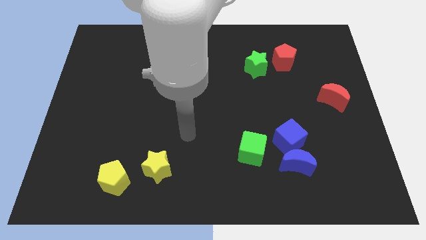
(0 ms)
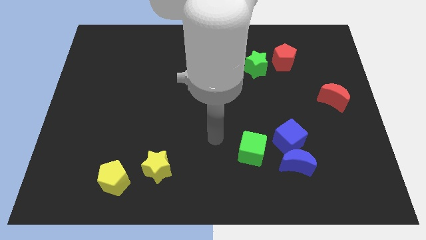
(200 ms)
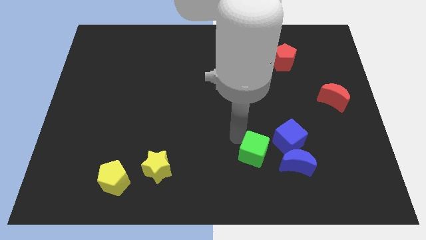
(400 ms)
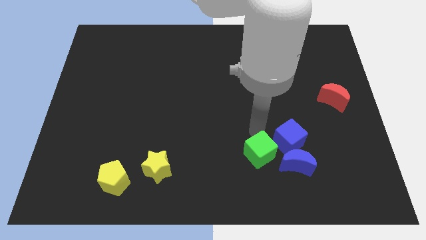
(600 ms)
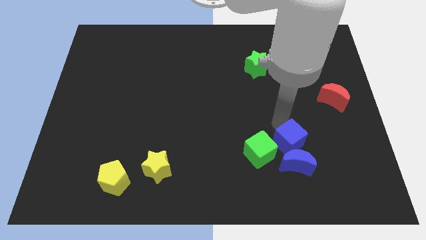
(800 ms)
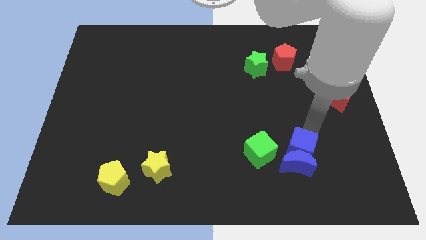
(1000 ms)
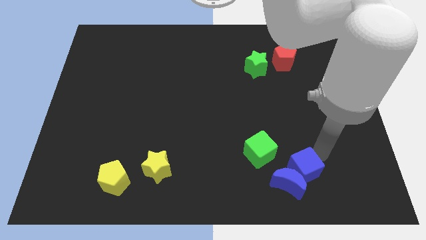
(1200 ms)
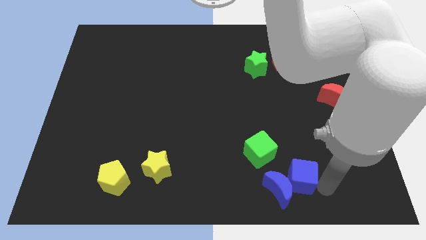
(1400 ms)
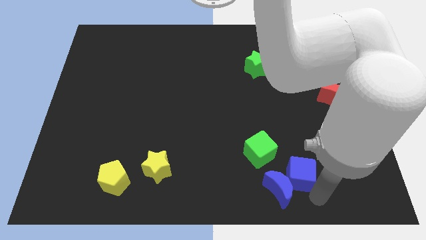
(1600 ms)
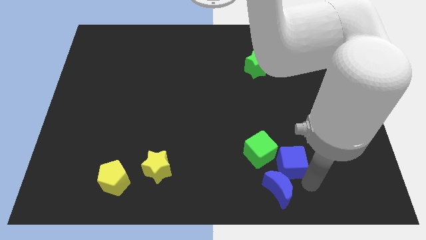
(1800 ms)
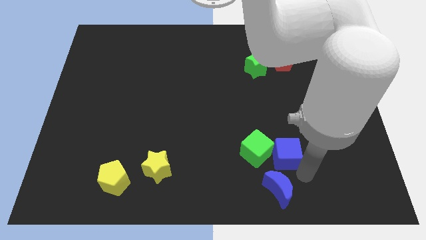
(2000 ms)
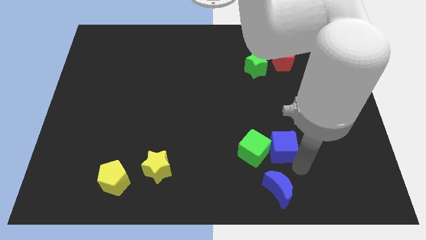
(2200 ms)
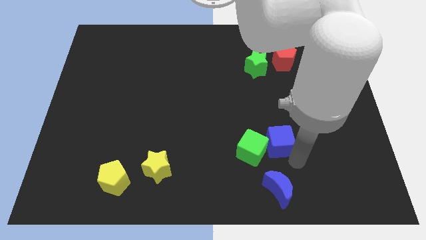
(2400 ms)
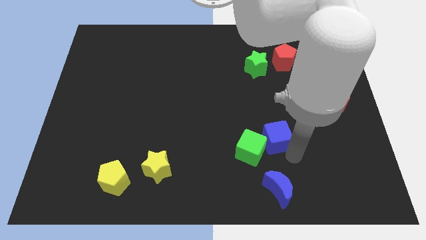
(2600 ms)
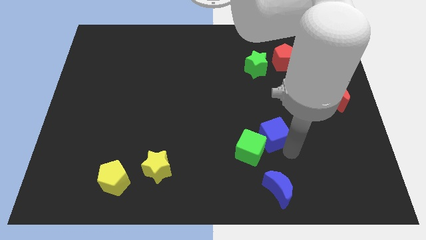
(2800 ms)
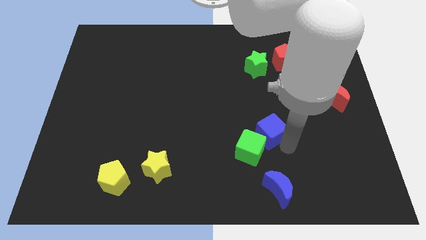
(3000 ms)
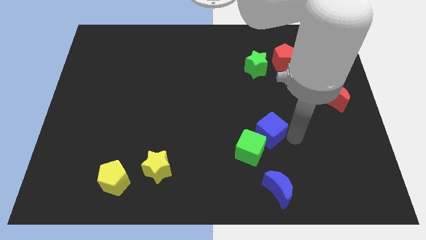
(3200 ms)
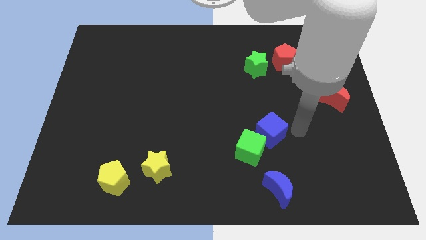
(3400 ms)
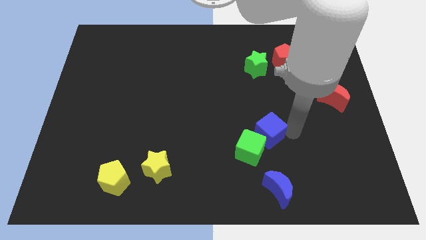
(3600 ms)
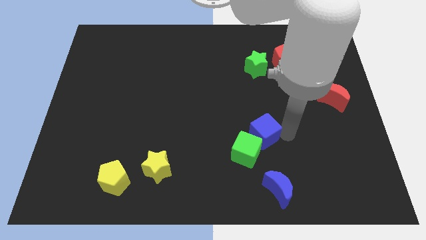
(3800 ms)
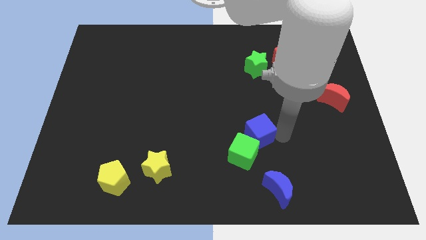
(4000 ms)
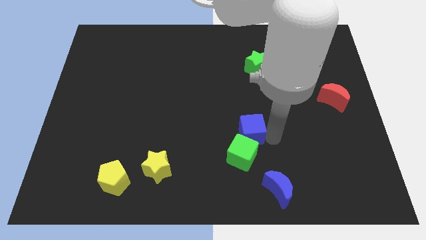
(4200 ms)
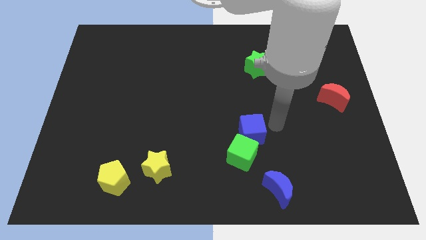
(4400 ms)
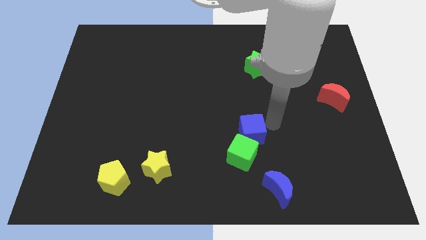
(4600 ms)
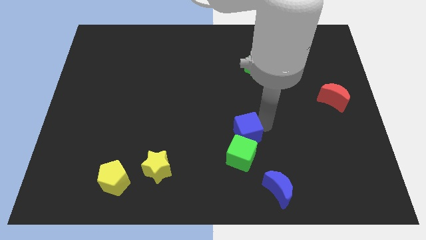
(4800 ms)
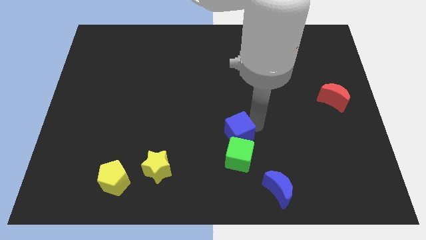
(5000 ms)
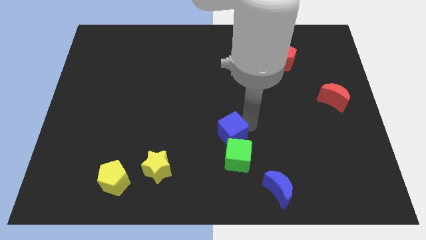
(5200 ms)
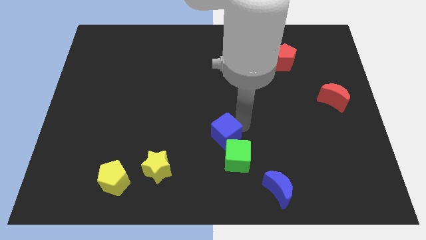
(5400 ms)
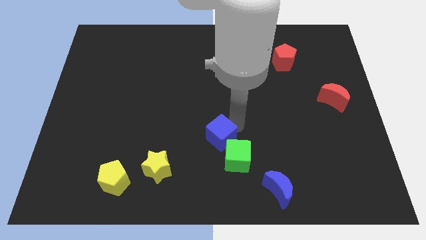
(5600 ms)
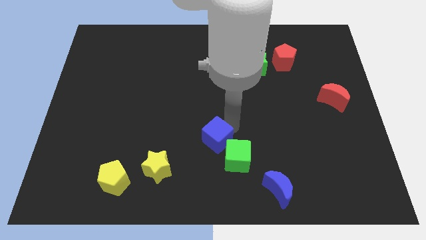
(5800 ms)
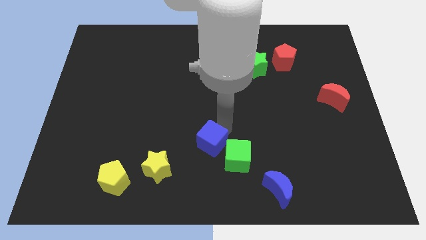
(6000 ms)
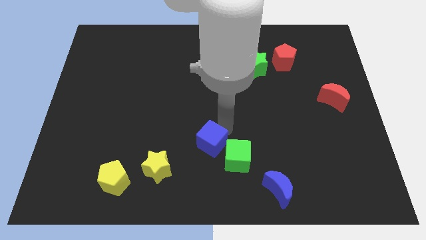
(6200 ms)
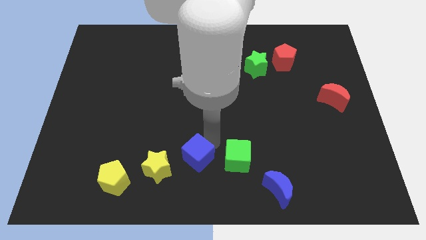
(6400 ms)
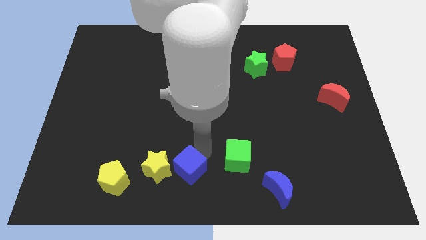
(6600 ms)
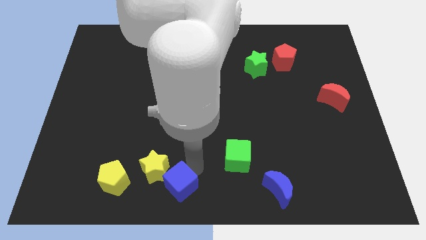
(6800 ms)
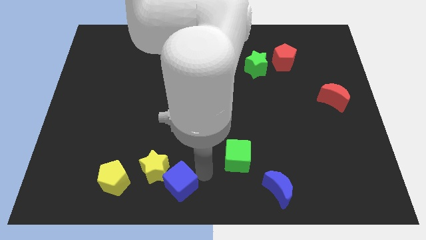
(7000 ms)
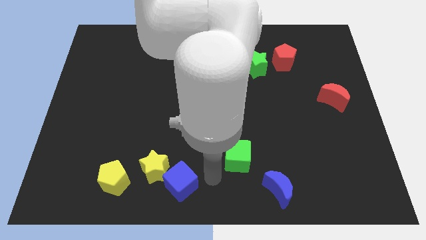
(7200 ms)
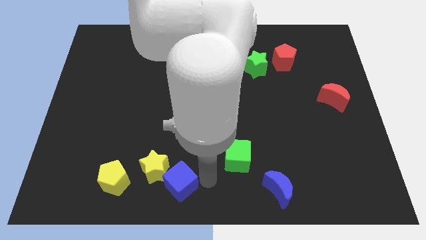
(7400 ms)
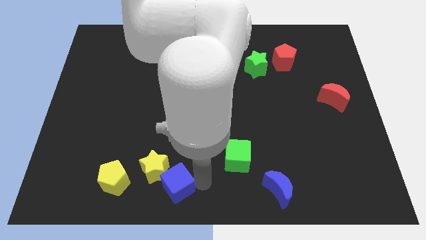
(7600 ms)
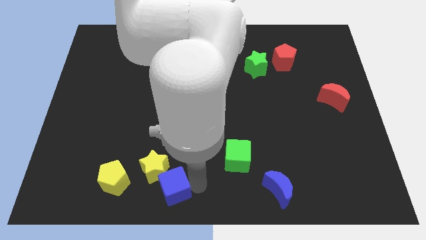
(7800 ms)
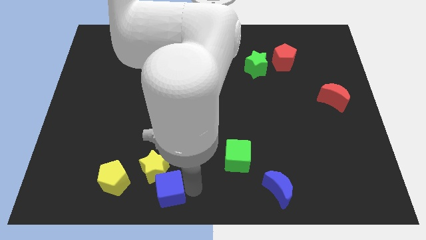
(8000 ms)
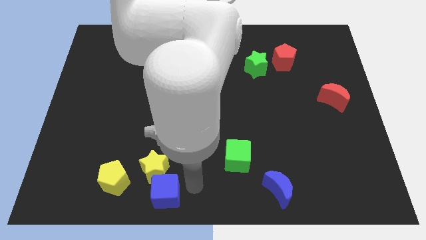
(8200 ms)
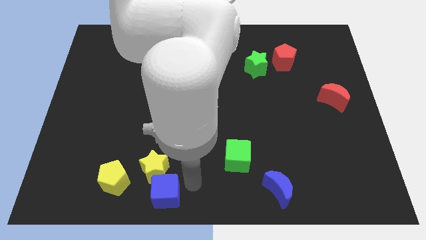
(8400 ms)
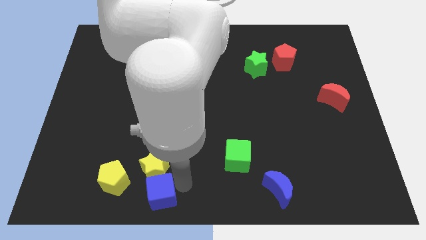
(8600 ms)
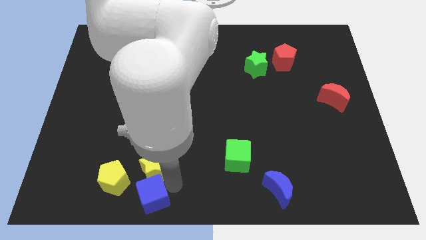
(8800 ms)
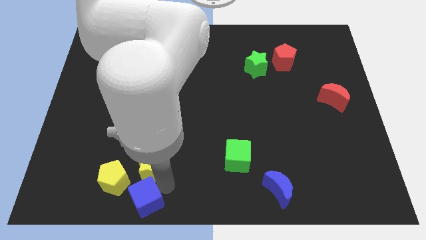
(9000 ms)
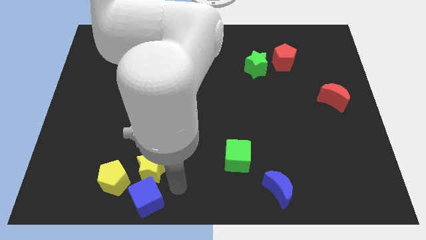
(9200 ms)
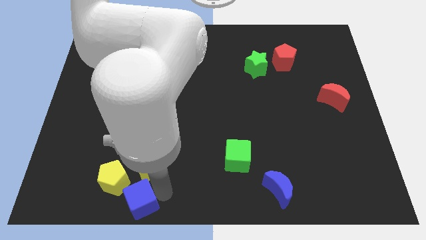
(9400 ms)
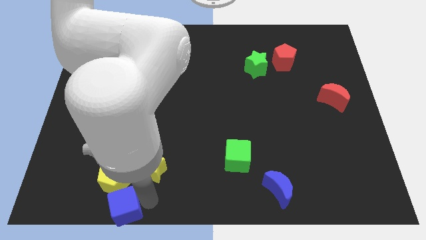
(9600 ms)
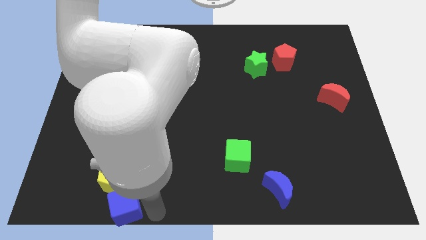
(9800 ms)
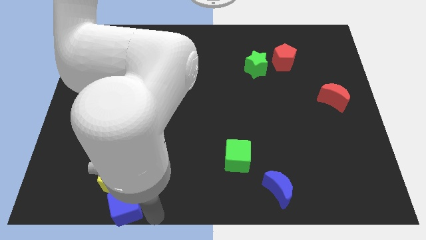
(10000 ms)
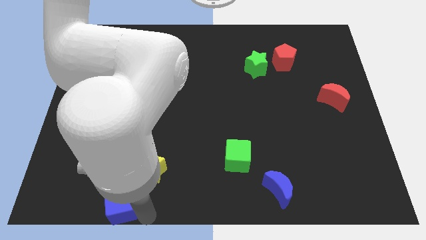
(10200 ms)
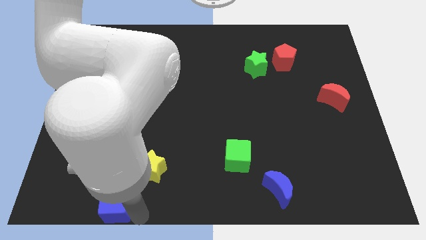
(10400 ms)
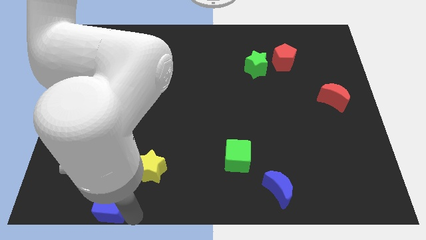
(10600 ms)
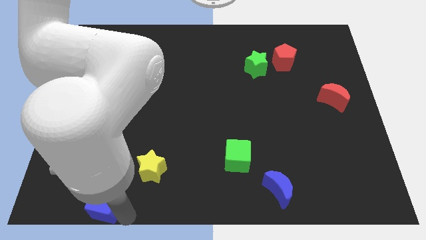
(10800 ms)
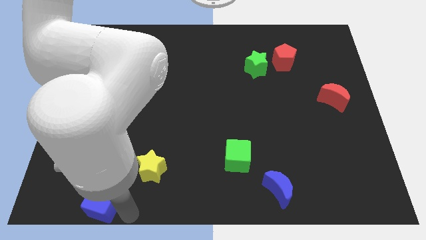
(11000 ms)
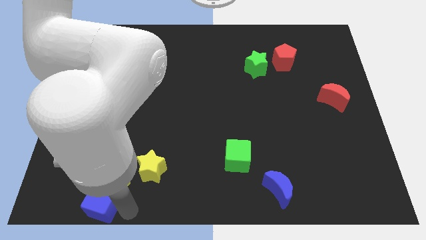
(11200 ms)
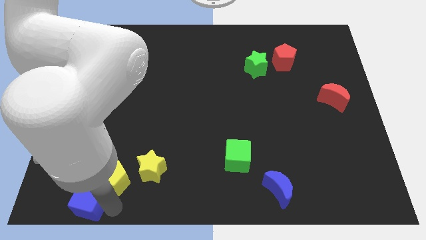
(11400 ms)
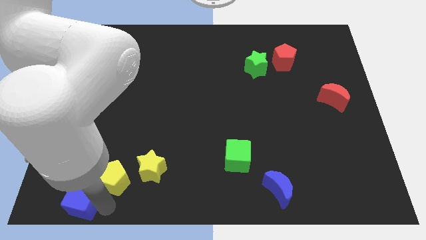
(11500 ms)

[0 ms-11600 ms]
slide the blue cube to the lower left corner

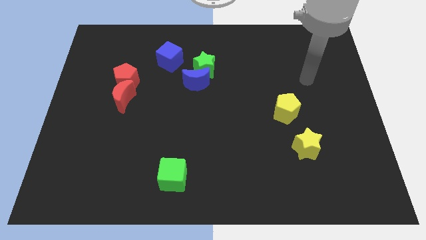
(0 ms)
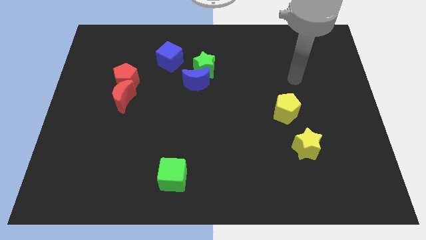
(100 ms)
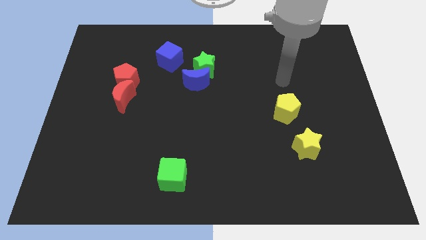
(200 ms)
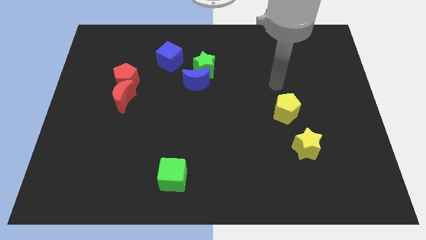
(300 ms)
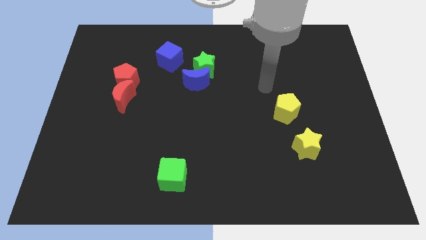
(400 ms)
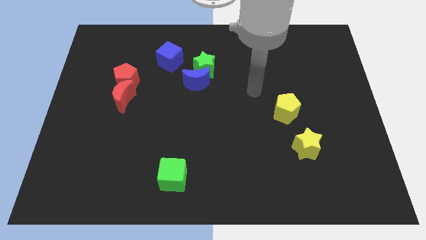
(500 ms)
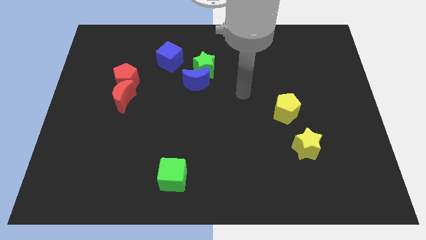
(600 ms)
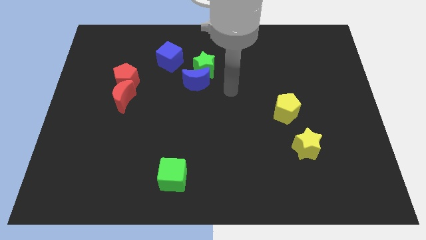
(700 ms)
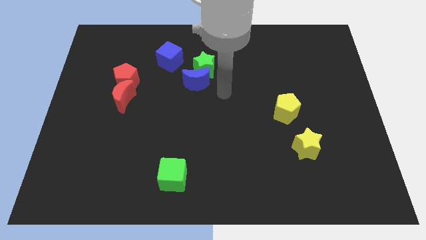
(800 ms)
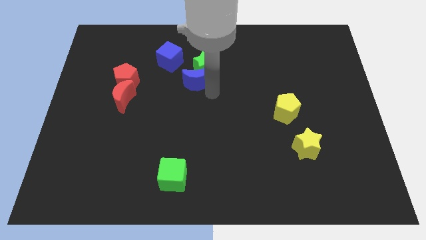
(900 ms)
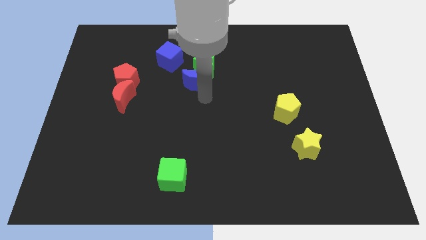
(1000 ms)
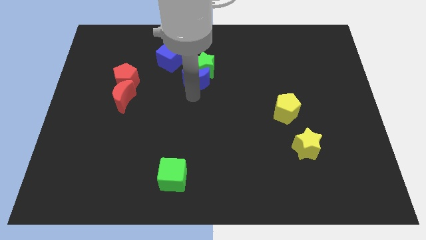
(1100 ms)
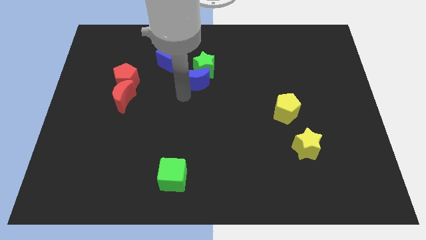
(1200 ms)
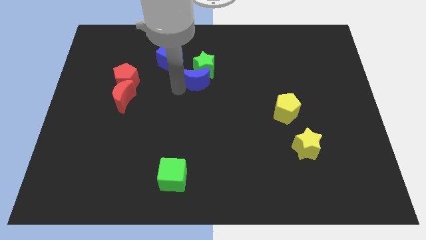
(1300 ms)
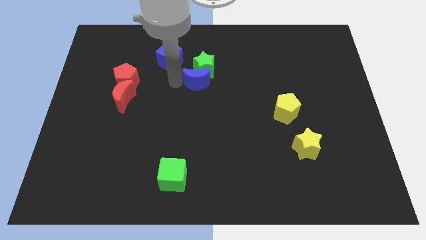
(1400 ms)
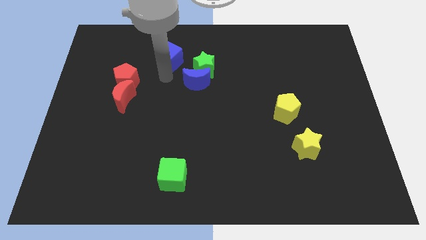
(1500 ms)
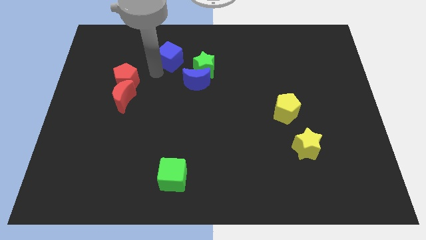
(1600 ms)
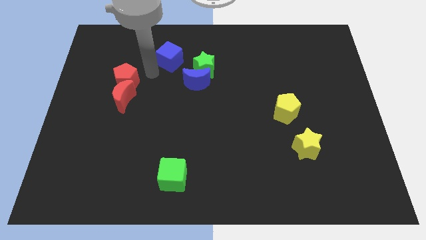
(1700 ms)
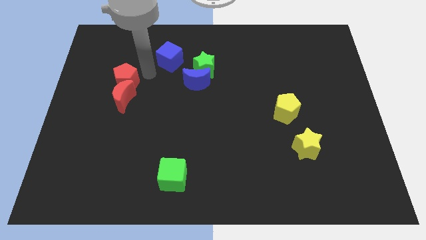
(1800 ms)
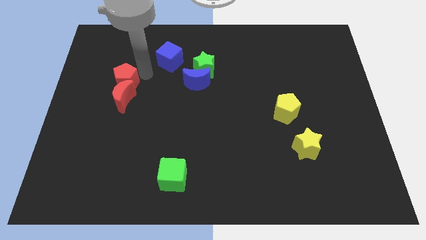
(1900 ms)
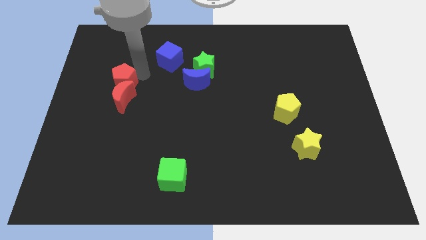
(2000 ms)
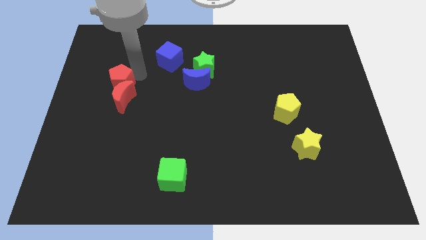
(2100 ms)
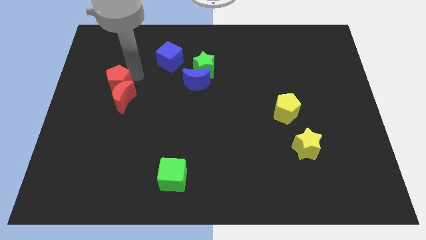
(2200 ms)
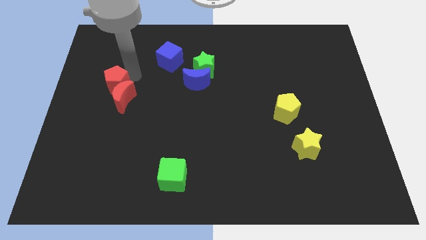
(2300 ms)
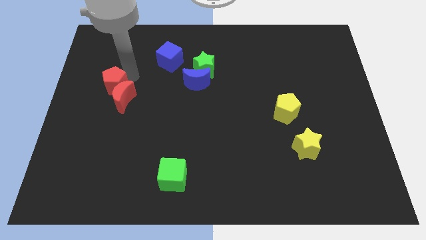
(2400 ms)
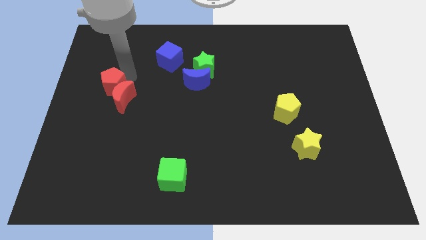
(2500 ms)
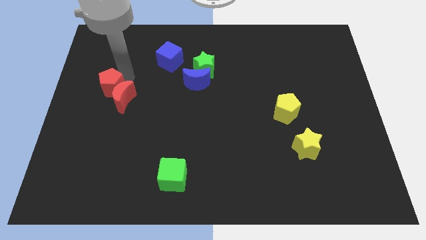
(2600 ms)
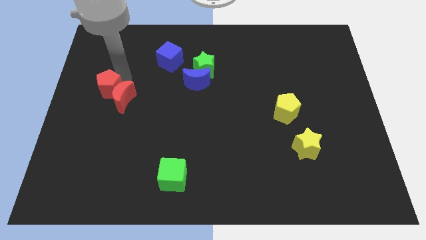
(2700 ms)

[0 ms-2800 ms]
push the red pentagon to the left side
